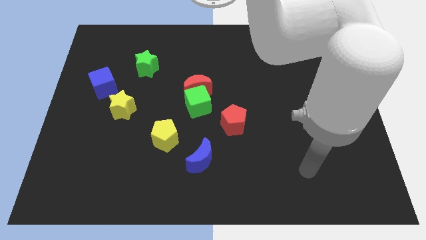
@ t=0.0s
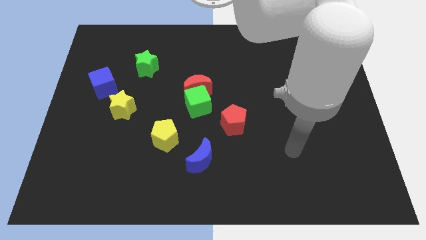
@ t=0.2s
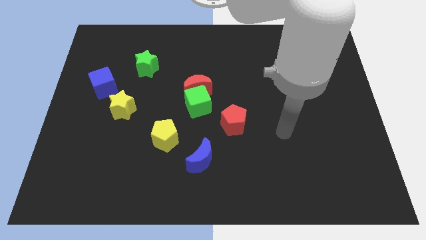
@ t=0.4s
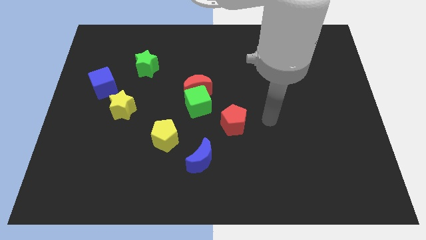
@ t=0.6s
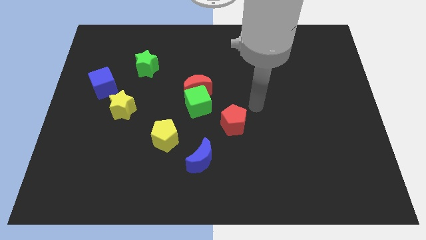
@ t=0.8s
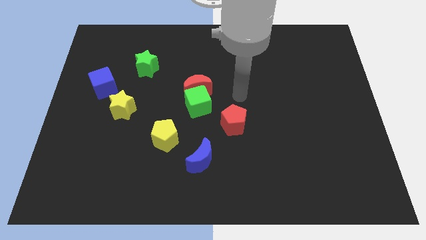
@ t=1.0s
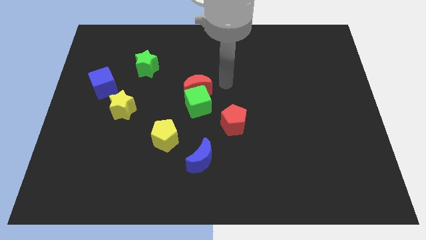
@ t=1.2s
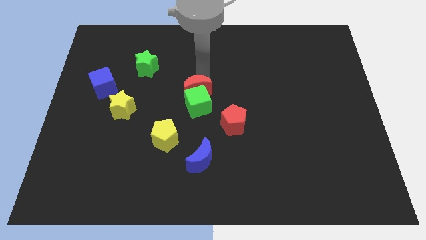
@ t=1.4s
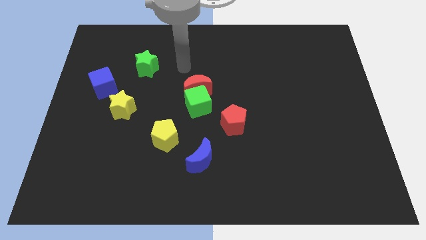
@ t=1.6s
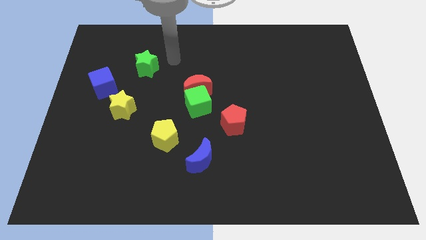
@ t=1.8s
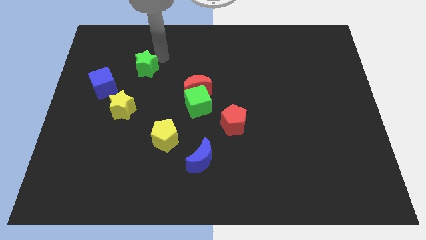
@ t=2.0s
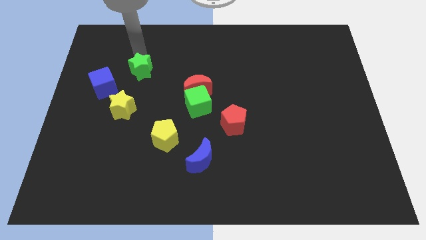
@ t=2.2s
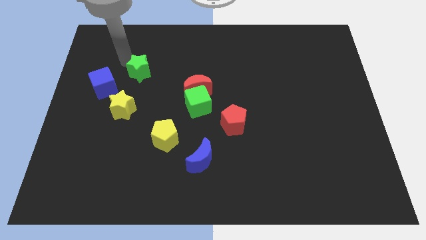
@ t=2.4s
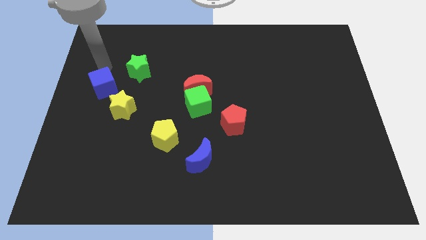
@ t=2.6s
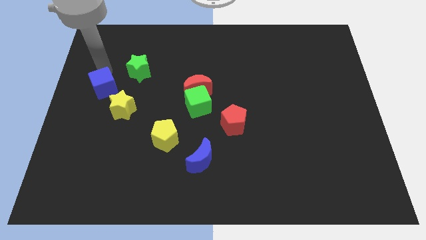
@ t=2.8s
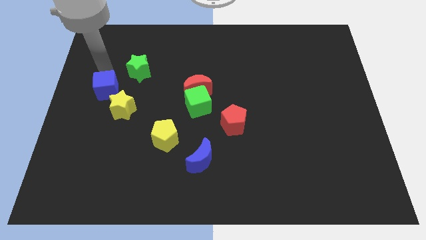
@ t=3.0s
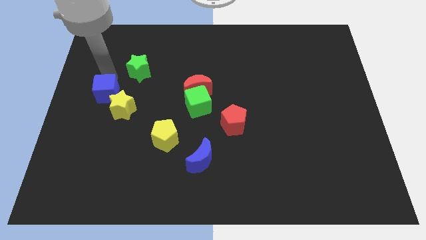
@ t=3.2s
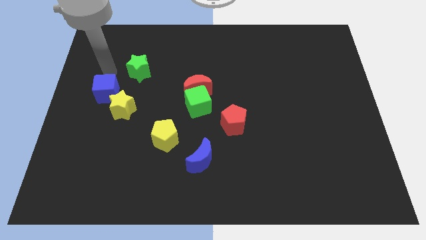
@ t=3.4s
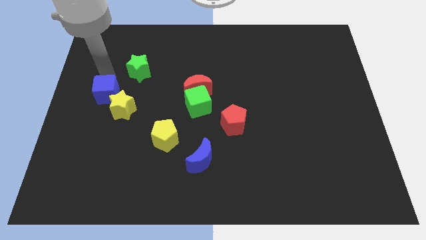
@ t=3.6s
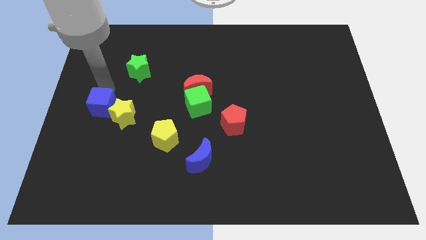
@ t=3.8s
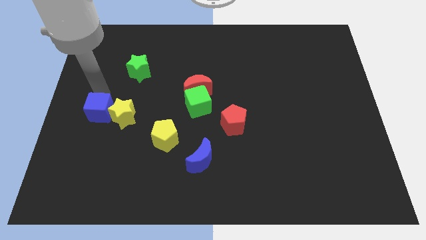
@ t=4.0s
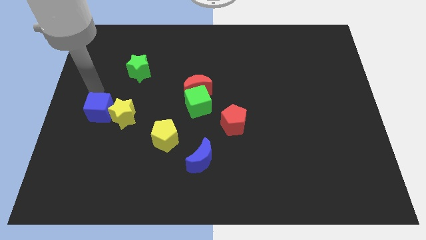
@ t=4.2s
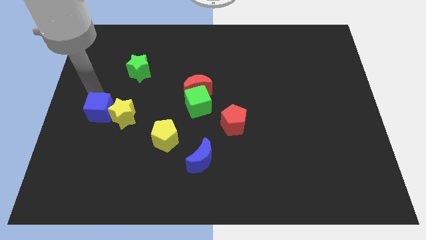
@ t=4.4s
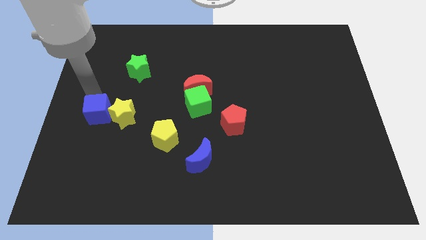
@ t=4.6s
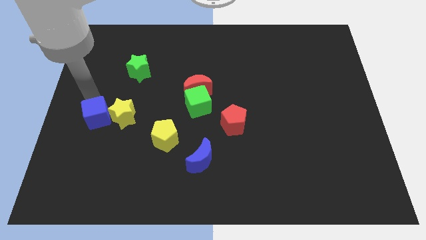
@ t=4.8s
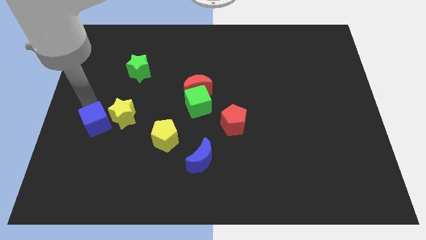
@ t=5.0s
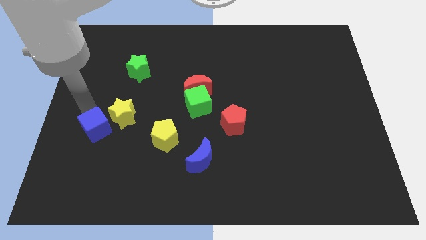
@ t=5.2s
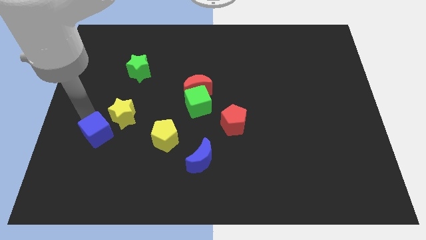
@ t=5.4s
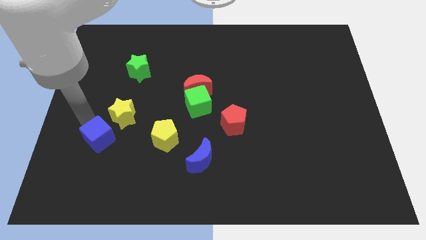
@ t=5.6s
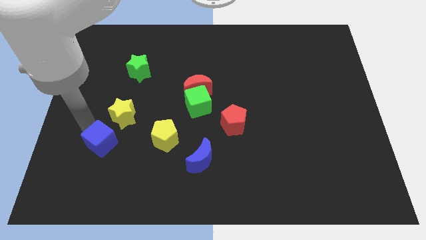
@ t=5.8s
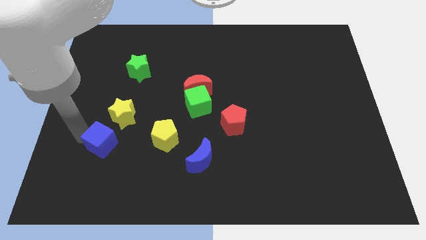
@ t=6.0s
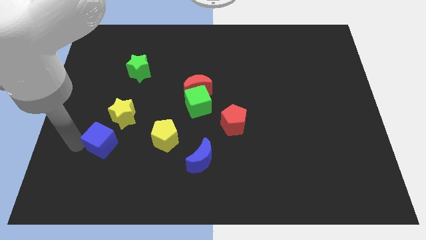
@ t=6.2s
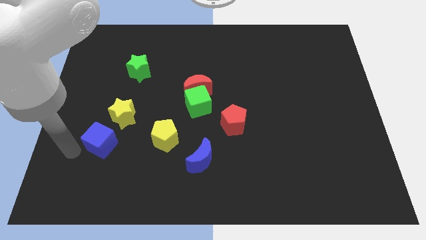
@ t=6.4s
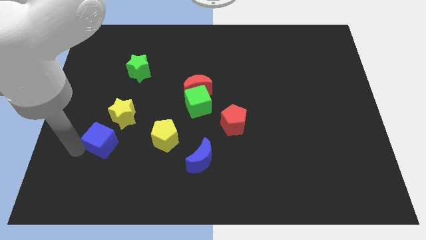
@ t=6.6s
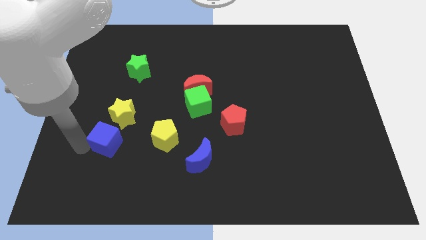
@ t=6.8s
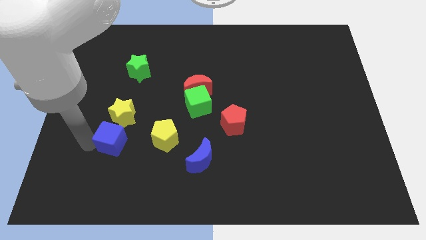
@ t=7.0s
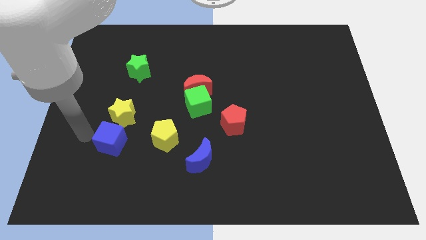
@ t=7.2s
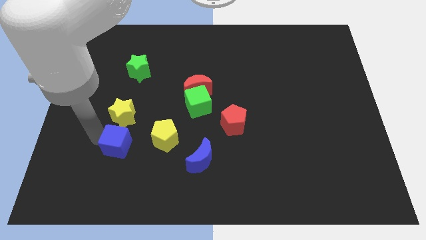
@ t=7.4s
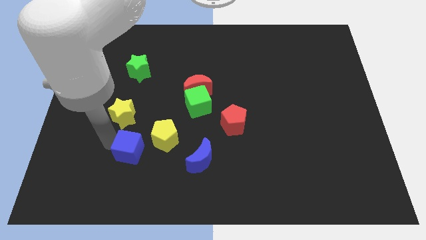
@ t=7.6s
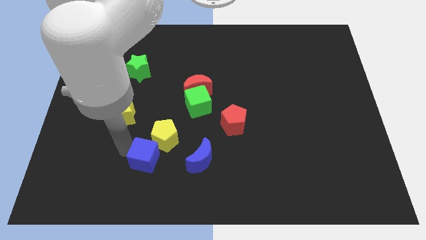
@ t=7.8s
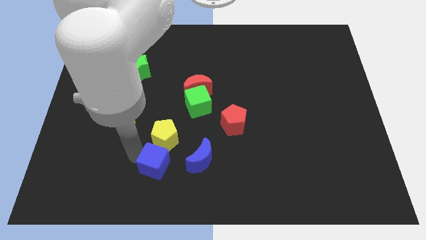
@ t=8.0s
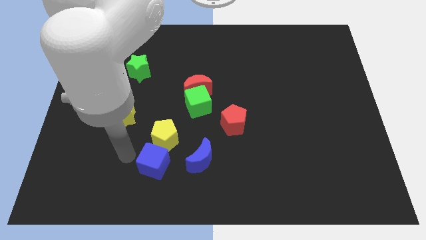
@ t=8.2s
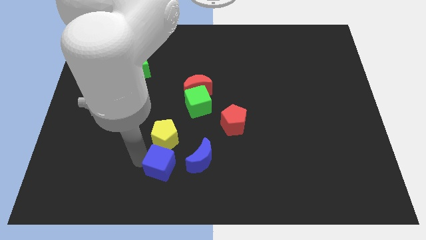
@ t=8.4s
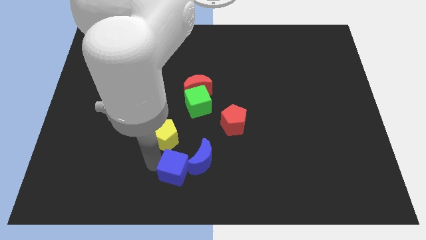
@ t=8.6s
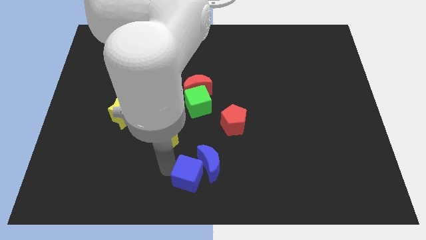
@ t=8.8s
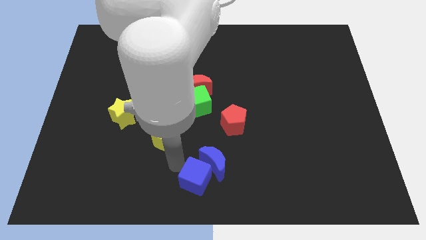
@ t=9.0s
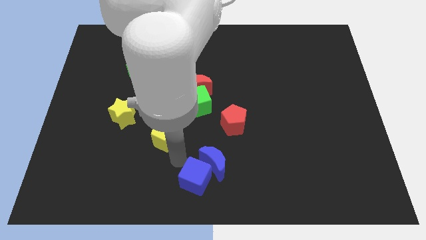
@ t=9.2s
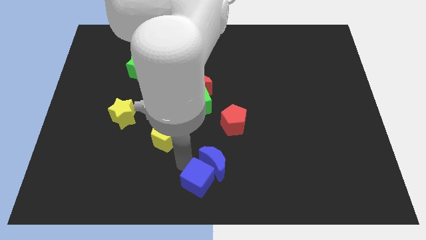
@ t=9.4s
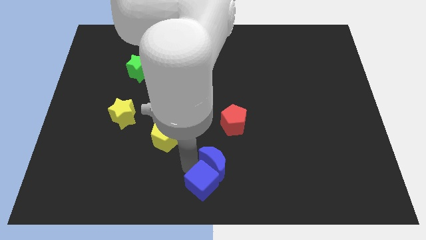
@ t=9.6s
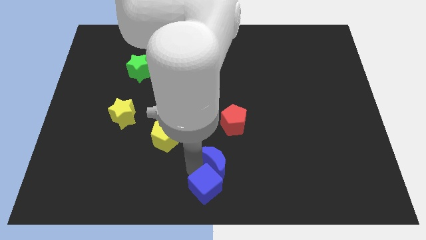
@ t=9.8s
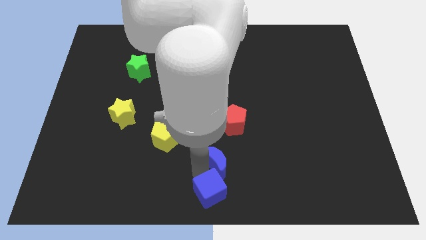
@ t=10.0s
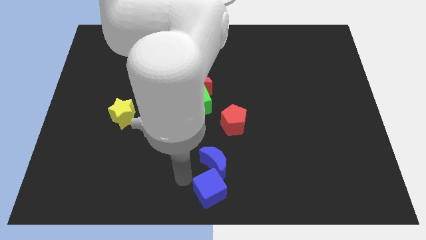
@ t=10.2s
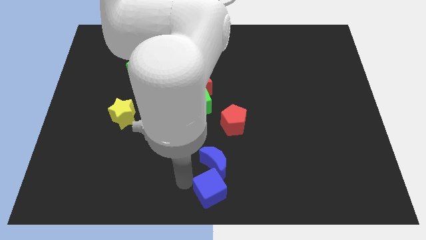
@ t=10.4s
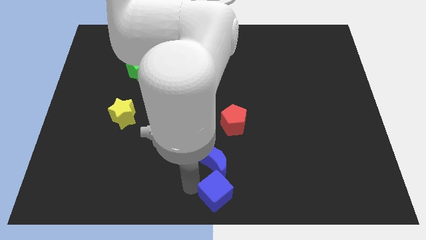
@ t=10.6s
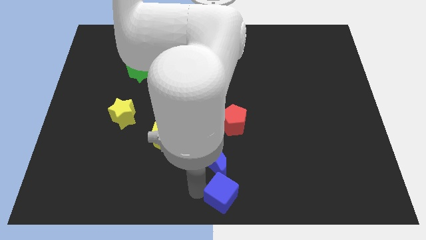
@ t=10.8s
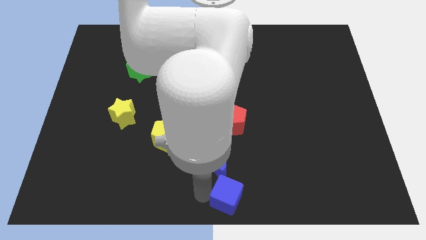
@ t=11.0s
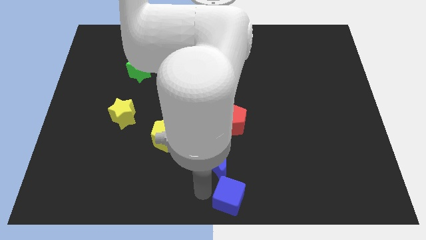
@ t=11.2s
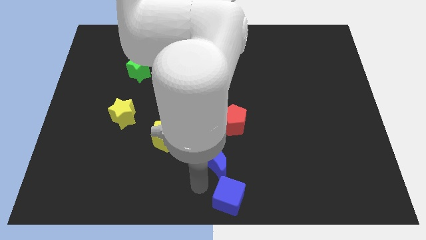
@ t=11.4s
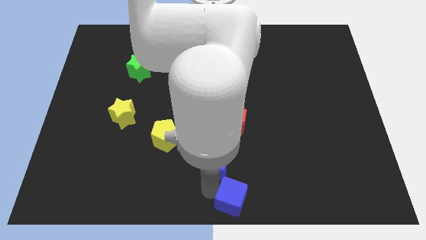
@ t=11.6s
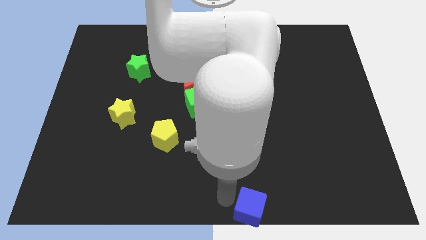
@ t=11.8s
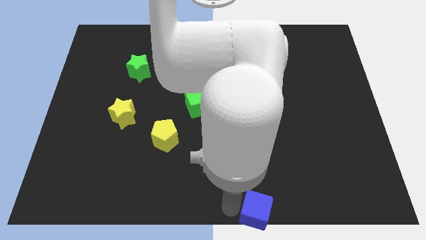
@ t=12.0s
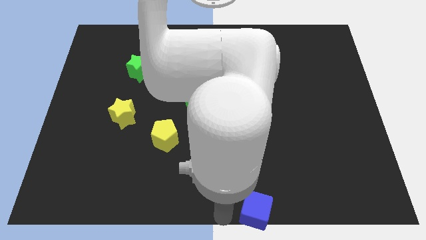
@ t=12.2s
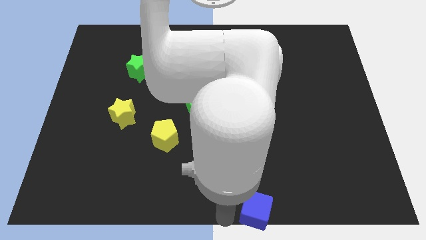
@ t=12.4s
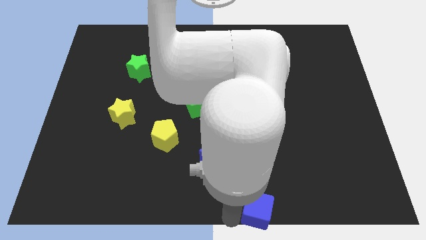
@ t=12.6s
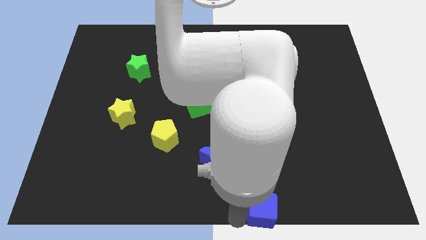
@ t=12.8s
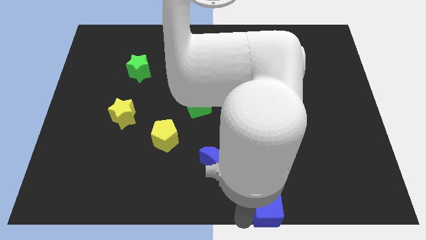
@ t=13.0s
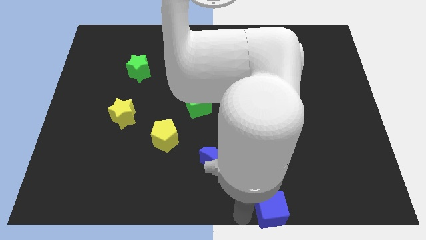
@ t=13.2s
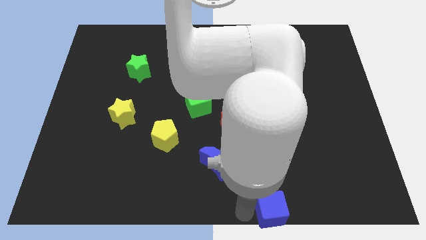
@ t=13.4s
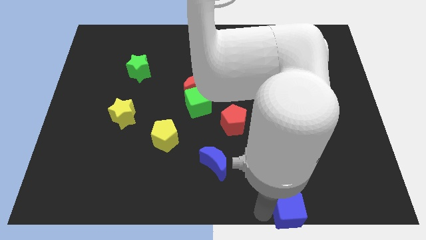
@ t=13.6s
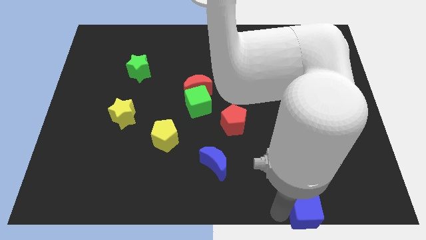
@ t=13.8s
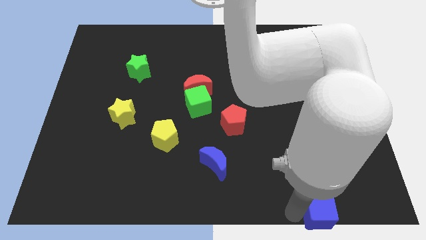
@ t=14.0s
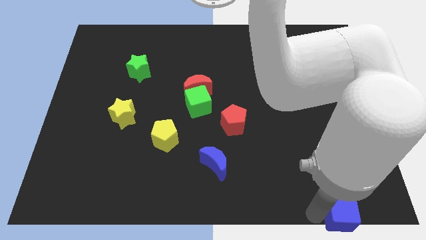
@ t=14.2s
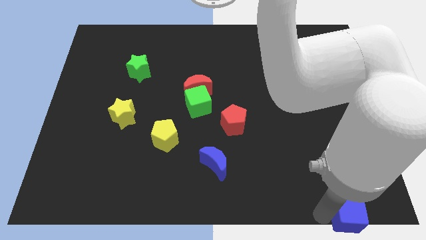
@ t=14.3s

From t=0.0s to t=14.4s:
move the blue cube to the bottom right
